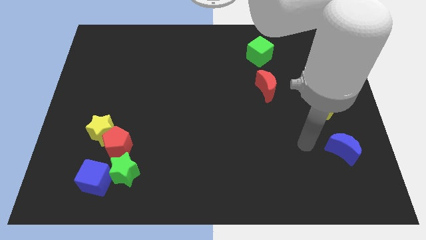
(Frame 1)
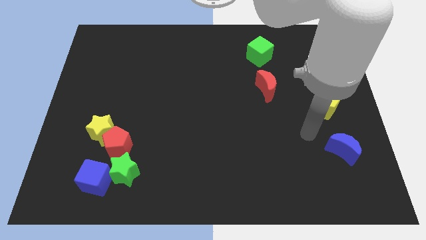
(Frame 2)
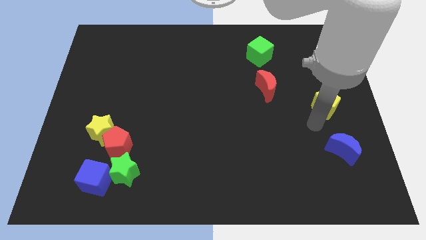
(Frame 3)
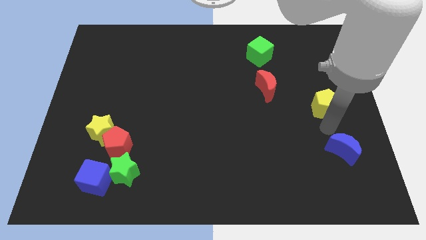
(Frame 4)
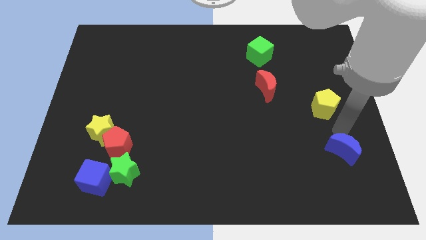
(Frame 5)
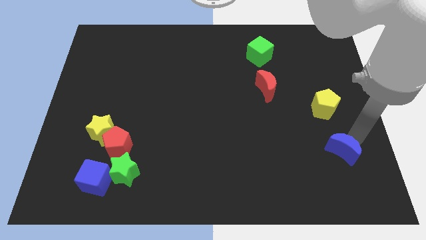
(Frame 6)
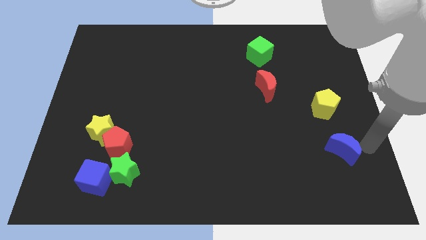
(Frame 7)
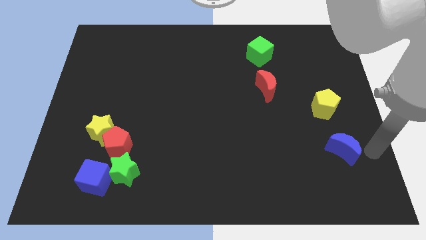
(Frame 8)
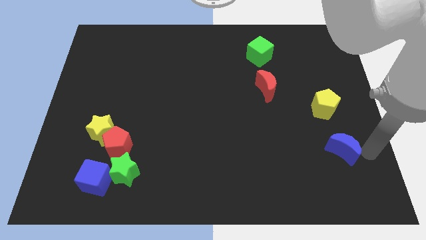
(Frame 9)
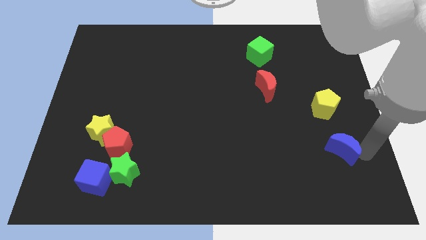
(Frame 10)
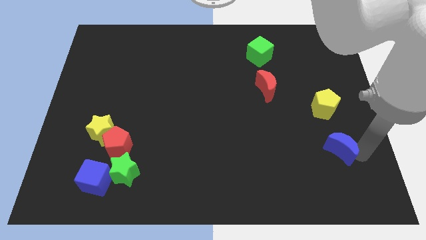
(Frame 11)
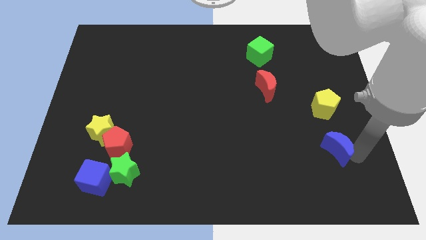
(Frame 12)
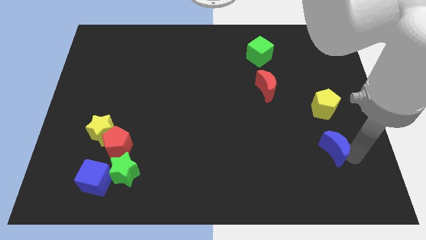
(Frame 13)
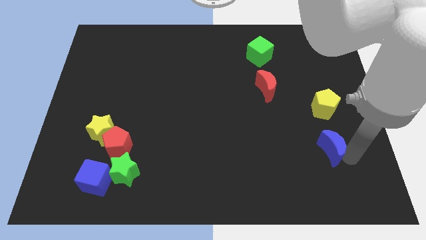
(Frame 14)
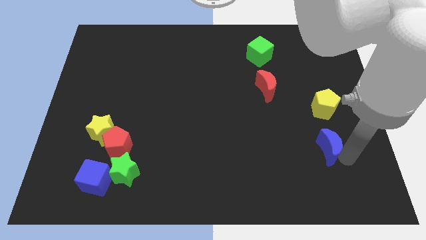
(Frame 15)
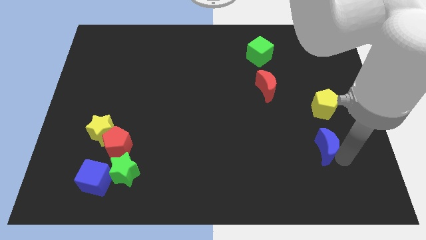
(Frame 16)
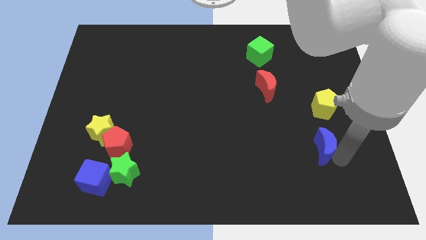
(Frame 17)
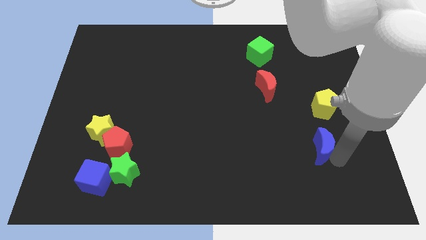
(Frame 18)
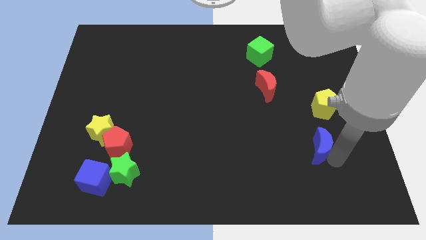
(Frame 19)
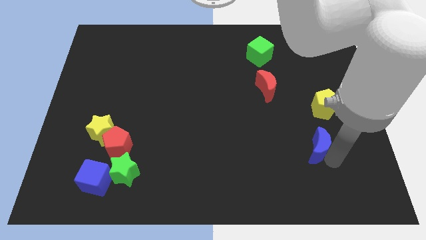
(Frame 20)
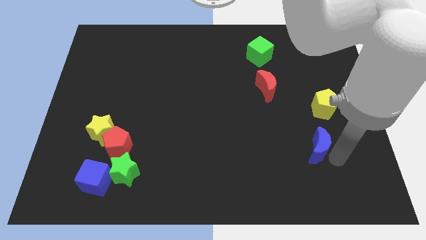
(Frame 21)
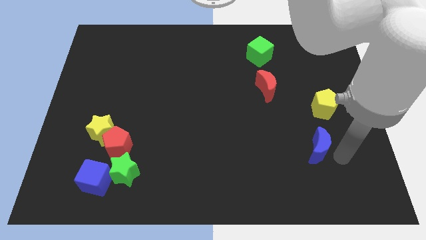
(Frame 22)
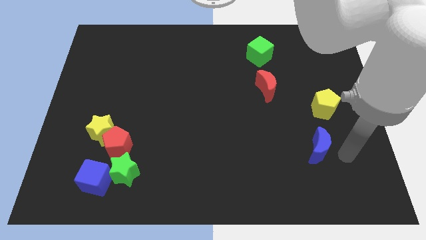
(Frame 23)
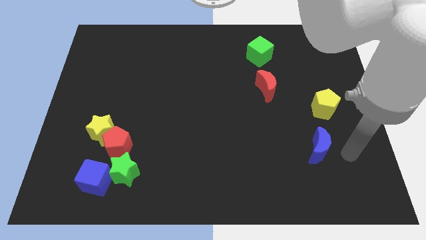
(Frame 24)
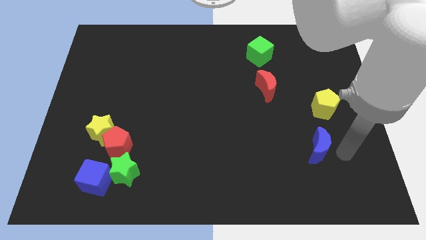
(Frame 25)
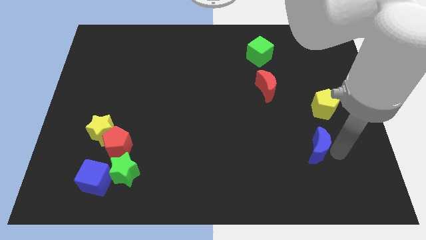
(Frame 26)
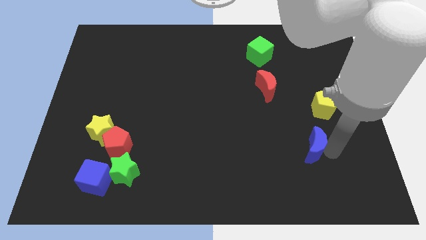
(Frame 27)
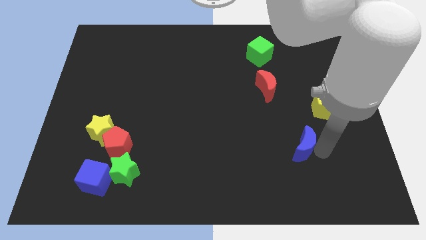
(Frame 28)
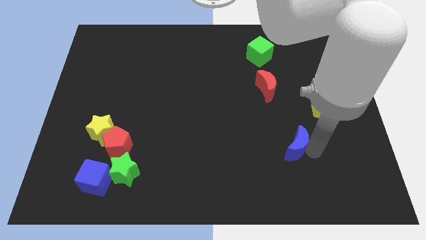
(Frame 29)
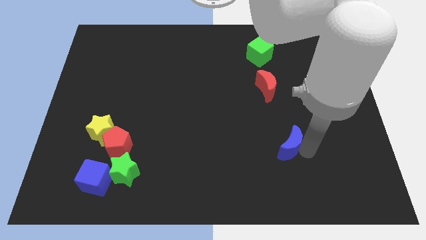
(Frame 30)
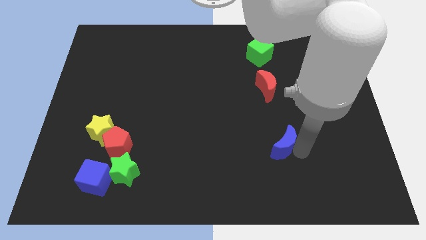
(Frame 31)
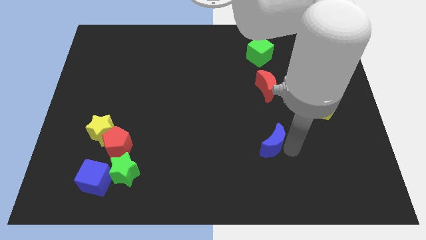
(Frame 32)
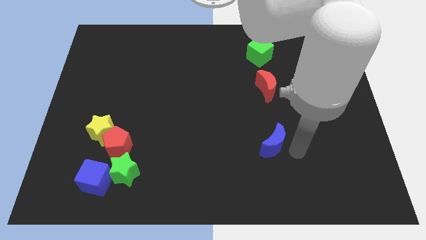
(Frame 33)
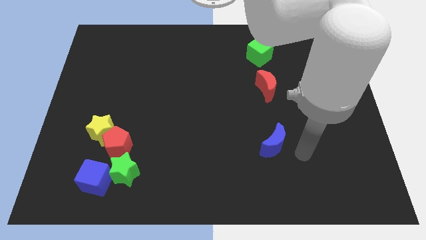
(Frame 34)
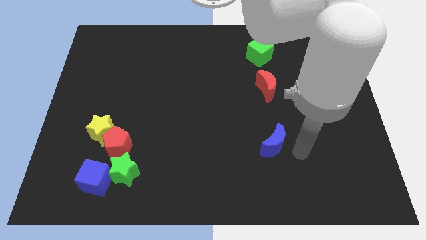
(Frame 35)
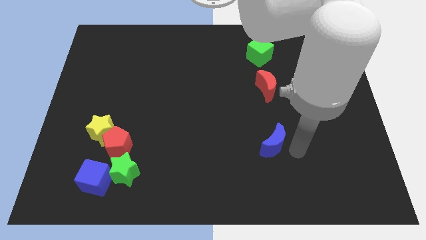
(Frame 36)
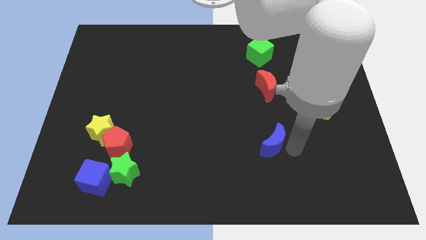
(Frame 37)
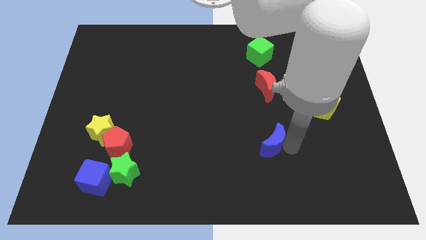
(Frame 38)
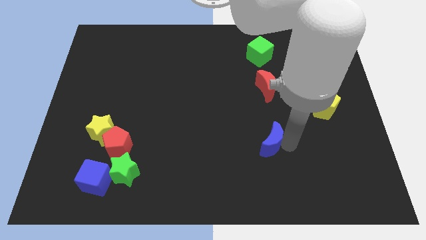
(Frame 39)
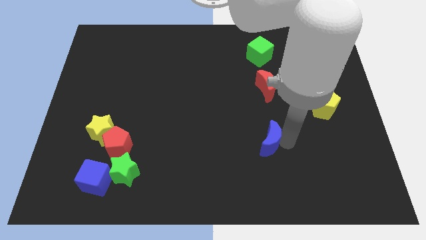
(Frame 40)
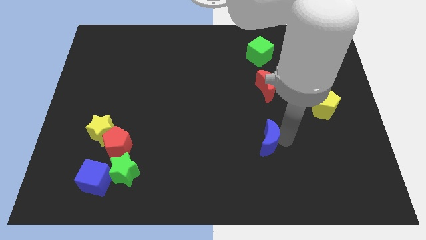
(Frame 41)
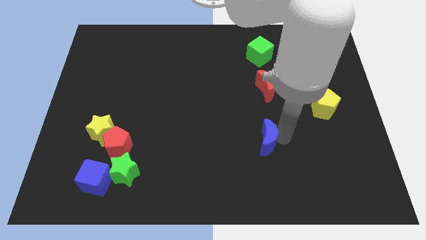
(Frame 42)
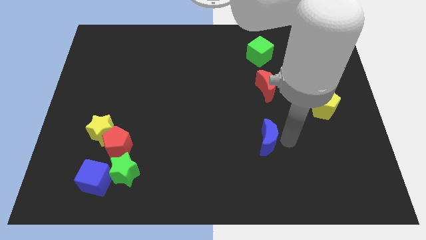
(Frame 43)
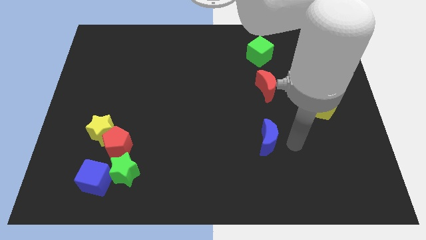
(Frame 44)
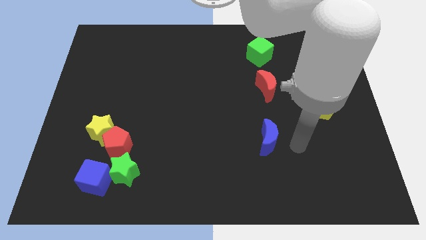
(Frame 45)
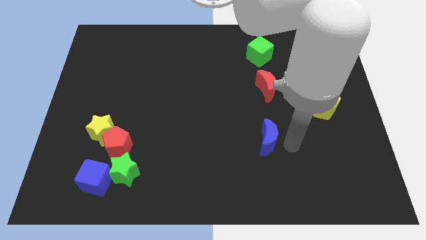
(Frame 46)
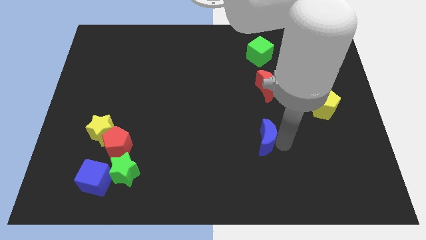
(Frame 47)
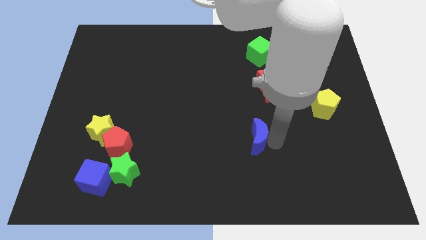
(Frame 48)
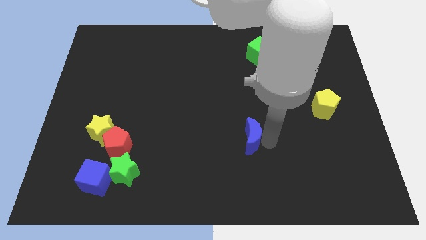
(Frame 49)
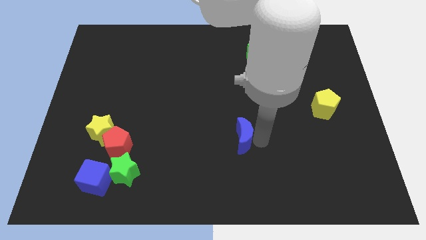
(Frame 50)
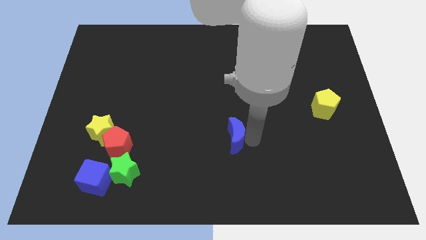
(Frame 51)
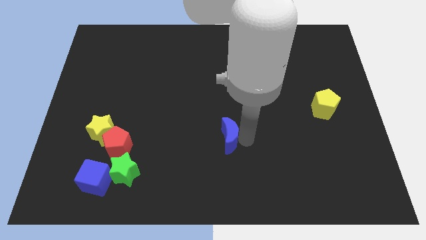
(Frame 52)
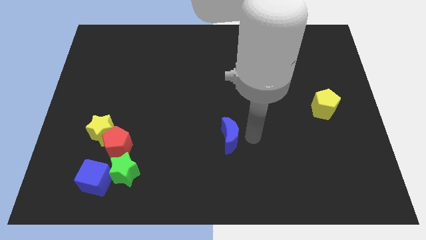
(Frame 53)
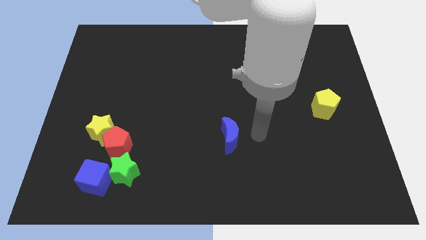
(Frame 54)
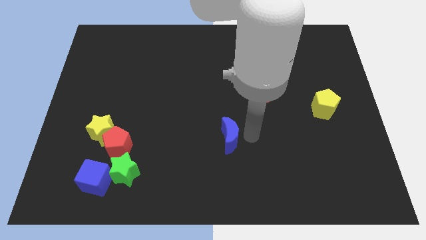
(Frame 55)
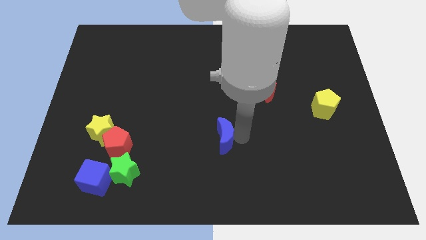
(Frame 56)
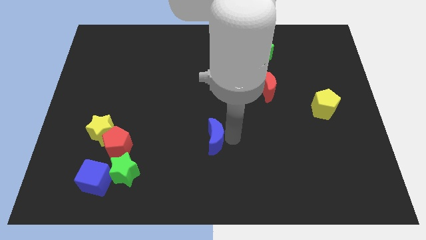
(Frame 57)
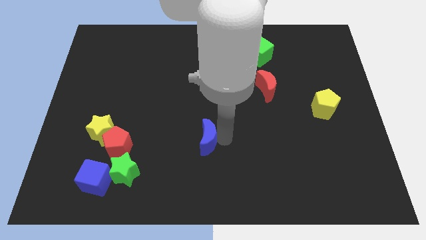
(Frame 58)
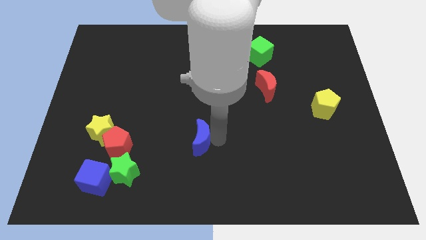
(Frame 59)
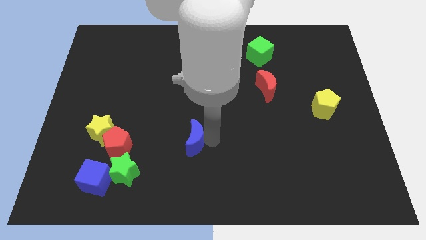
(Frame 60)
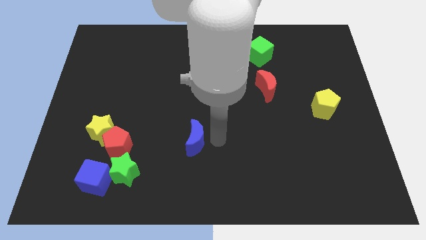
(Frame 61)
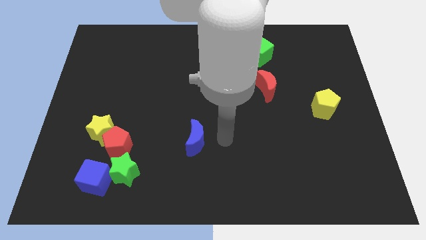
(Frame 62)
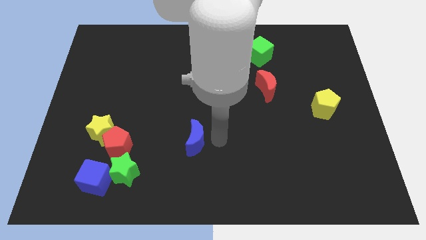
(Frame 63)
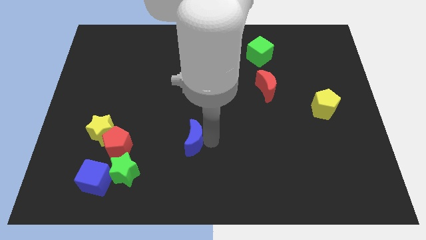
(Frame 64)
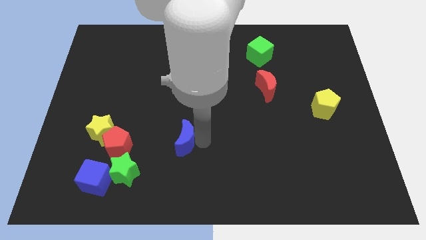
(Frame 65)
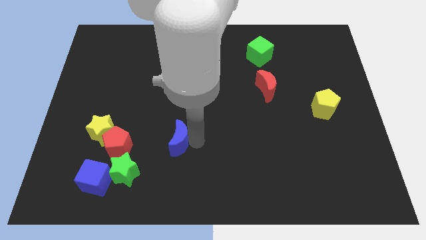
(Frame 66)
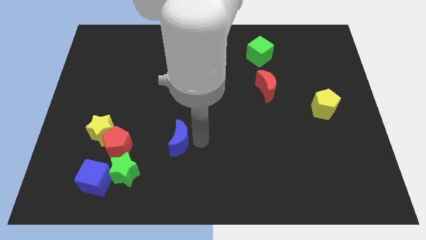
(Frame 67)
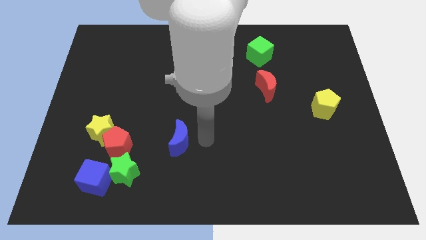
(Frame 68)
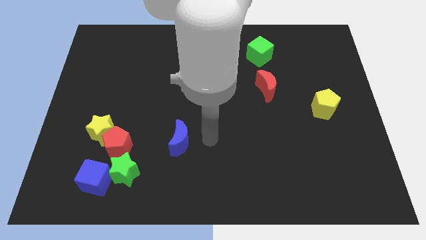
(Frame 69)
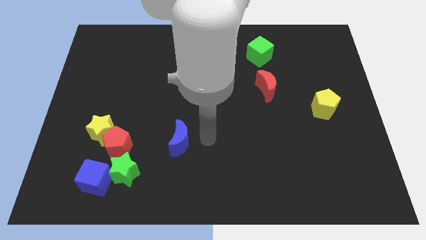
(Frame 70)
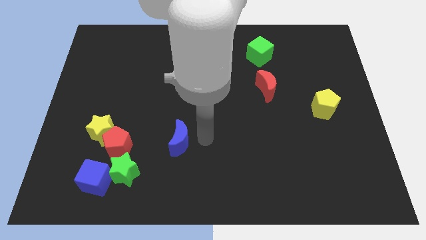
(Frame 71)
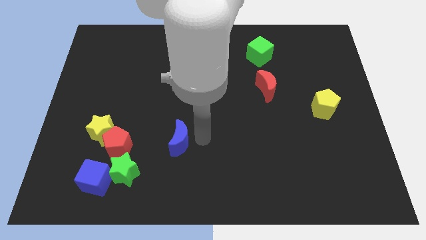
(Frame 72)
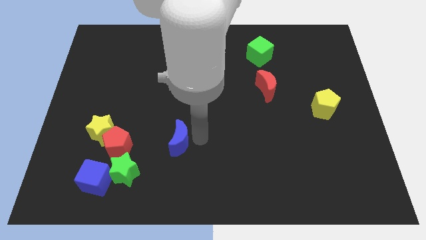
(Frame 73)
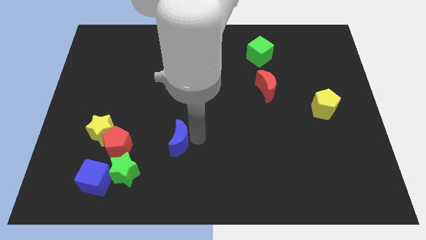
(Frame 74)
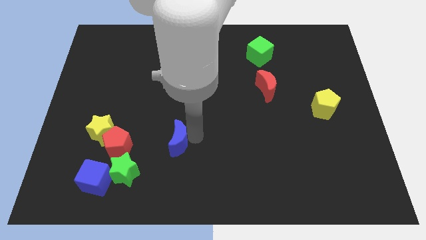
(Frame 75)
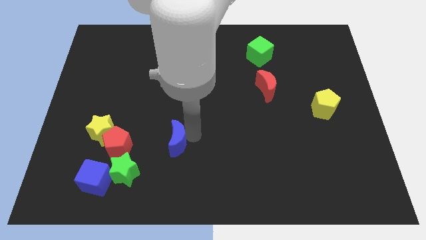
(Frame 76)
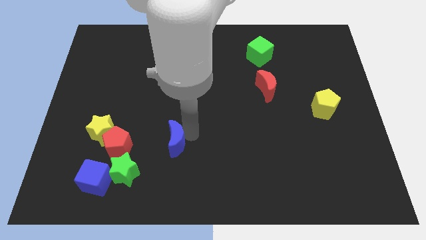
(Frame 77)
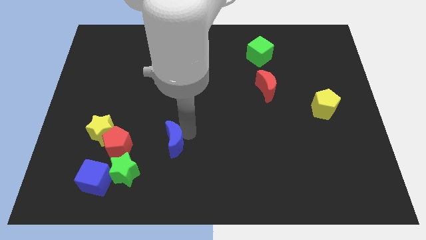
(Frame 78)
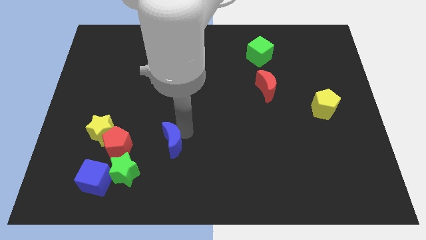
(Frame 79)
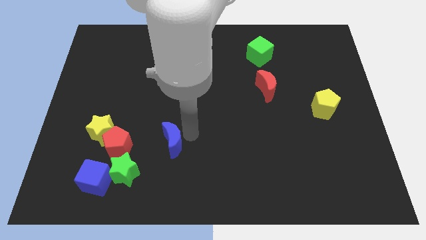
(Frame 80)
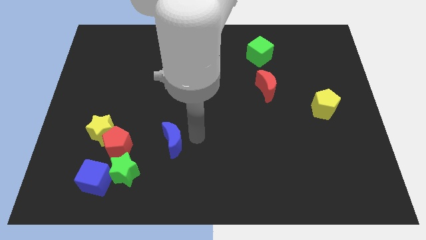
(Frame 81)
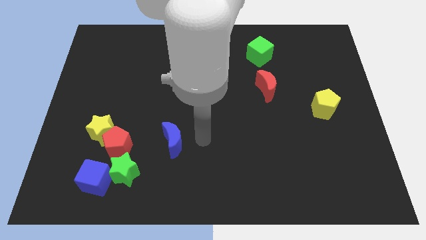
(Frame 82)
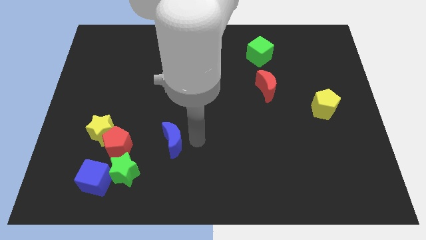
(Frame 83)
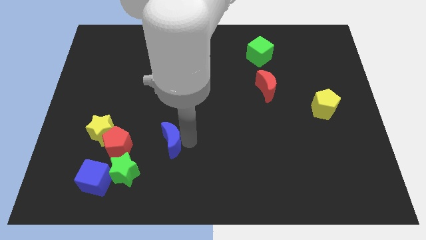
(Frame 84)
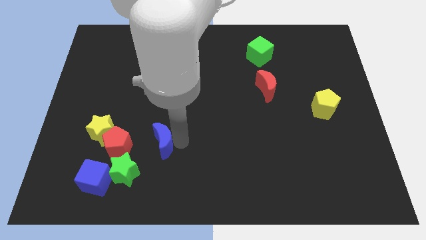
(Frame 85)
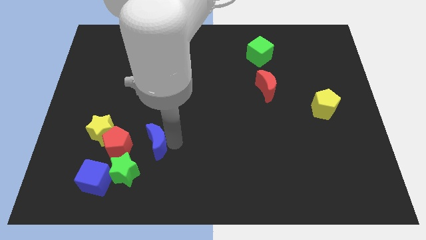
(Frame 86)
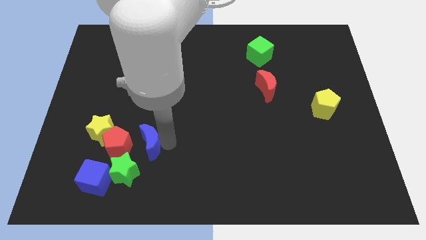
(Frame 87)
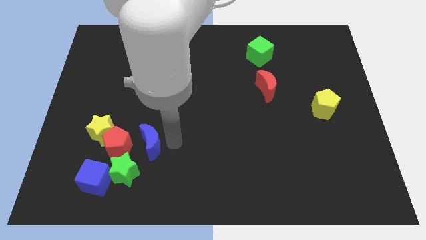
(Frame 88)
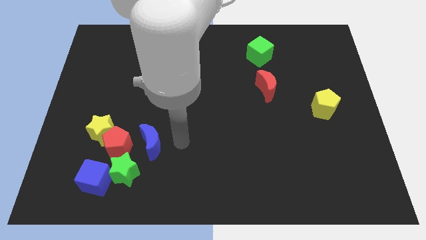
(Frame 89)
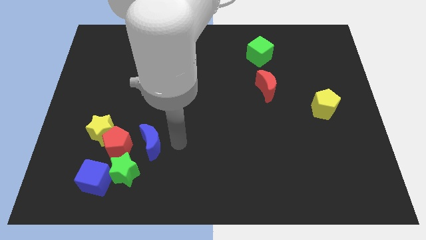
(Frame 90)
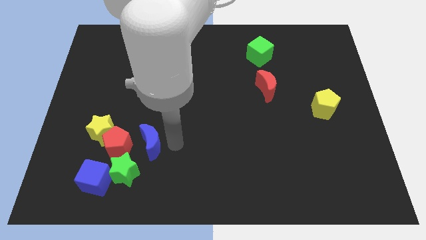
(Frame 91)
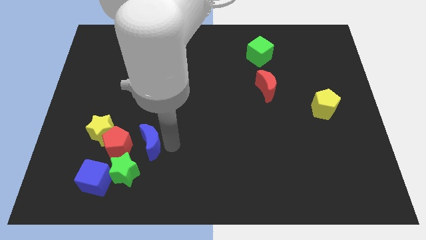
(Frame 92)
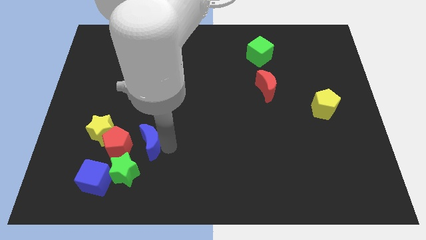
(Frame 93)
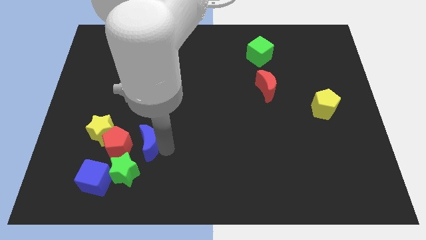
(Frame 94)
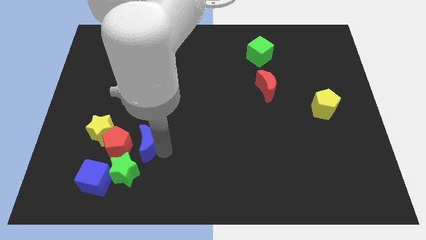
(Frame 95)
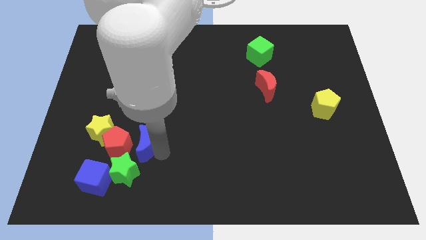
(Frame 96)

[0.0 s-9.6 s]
push the blue moon towards the red pentagon
